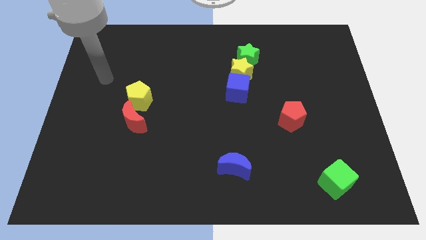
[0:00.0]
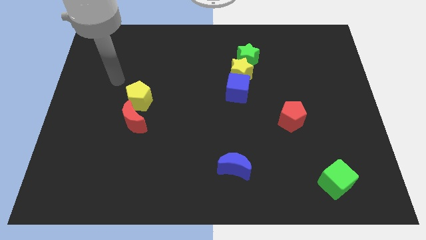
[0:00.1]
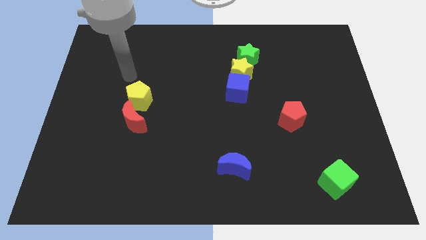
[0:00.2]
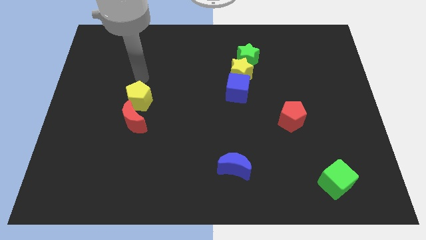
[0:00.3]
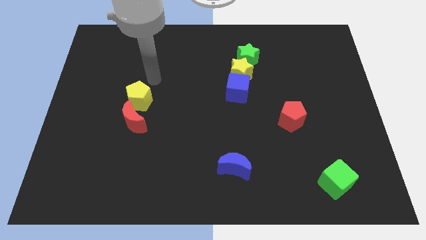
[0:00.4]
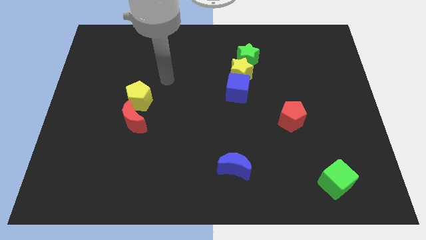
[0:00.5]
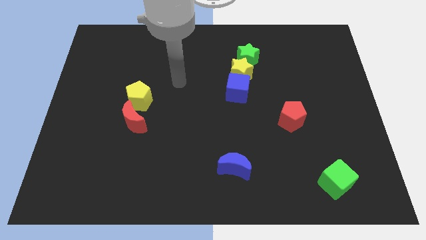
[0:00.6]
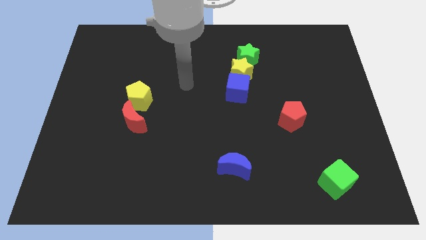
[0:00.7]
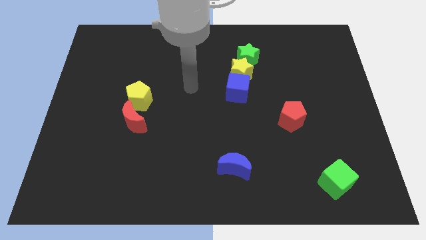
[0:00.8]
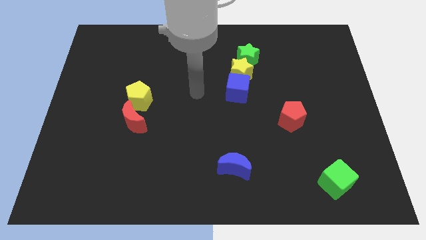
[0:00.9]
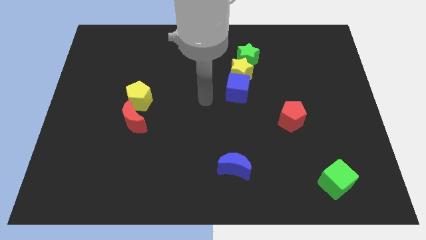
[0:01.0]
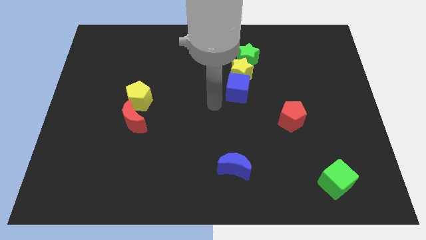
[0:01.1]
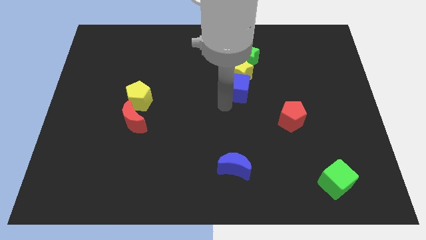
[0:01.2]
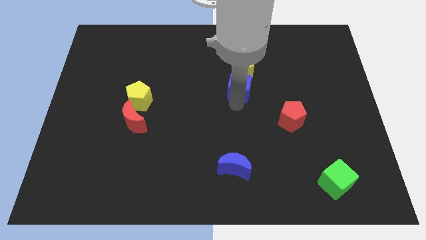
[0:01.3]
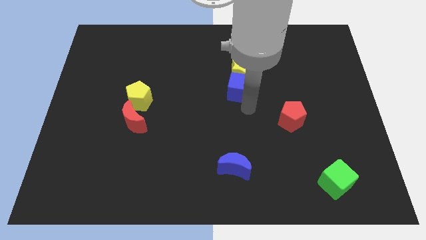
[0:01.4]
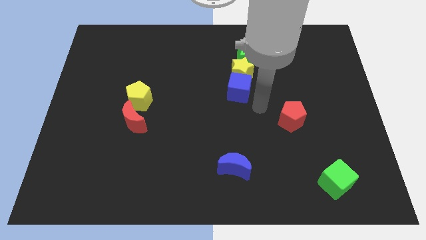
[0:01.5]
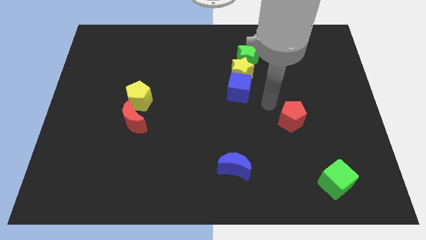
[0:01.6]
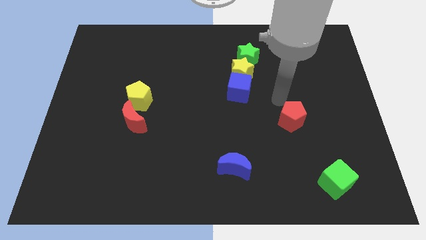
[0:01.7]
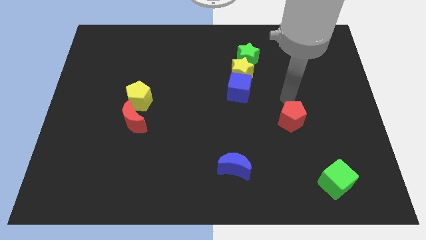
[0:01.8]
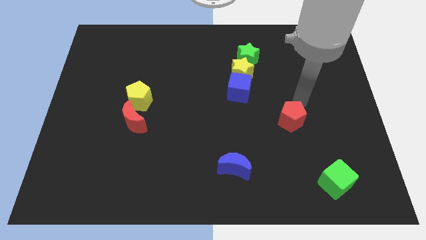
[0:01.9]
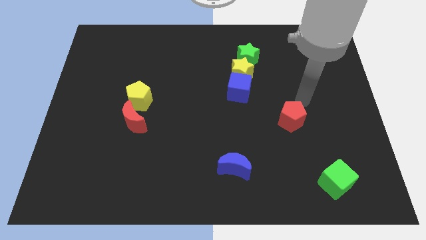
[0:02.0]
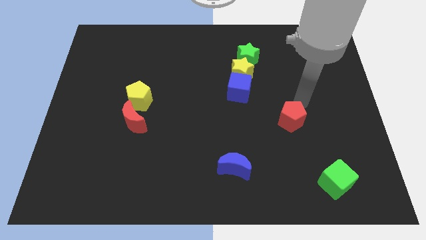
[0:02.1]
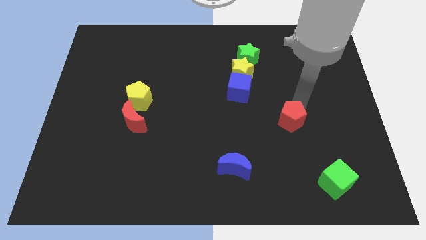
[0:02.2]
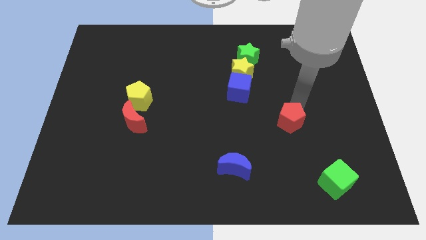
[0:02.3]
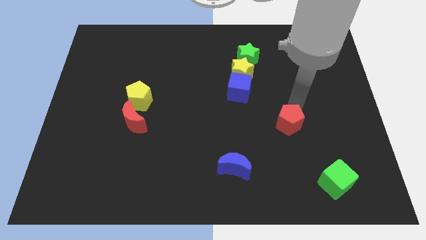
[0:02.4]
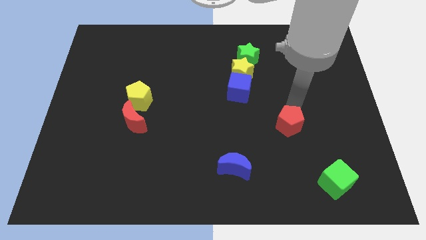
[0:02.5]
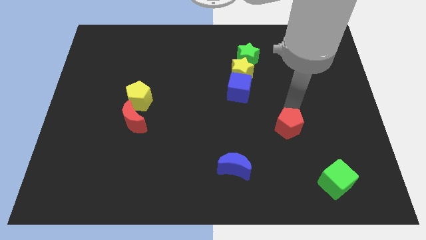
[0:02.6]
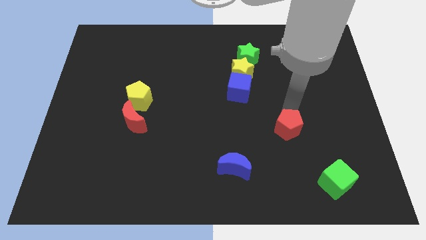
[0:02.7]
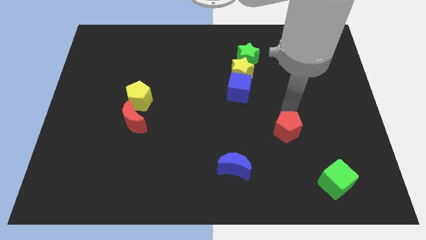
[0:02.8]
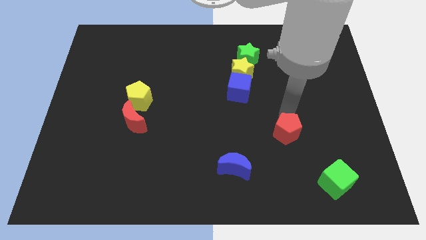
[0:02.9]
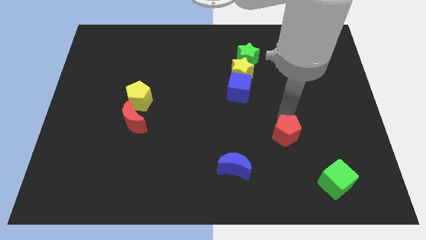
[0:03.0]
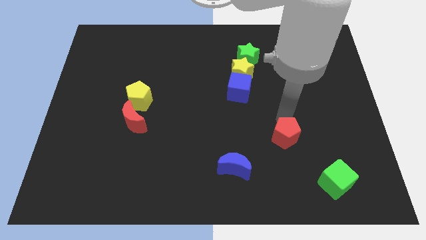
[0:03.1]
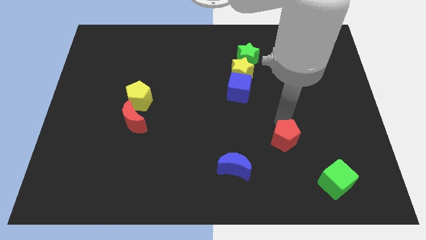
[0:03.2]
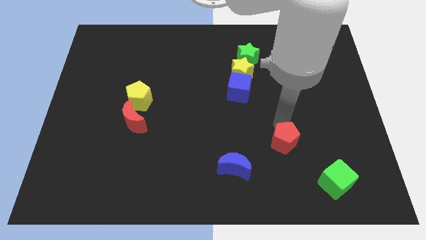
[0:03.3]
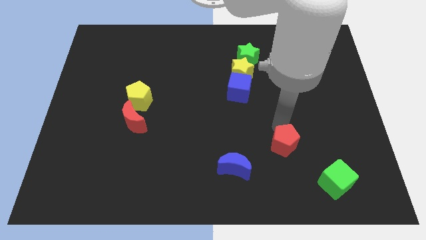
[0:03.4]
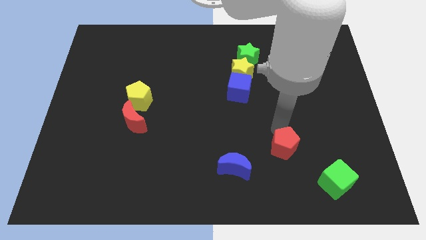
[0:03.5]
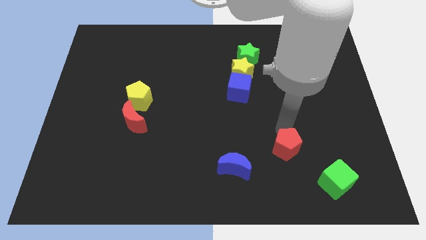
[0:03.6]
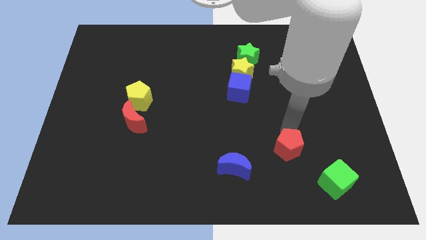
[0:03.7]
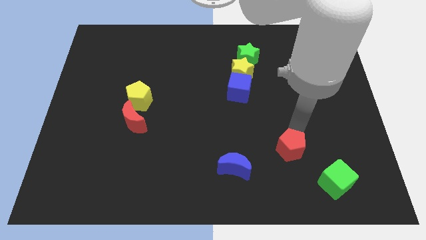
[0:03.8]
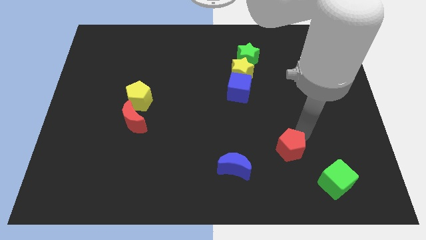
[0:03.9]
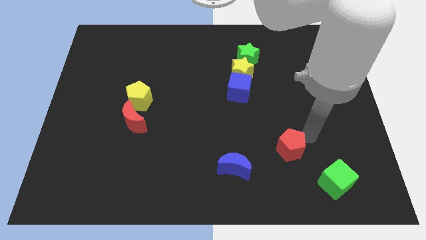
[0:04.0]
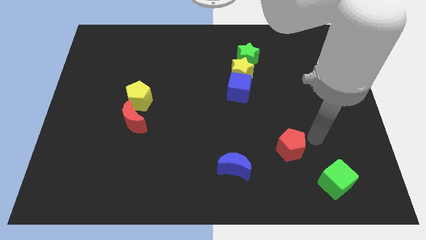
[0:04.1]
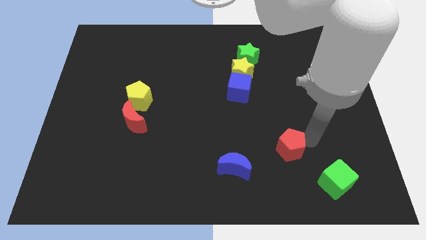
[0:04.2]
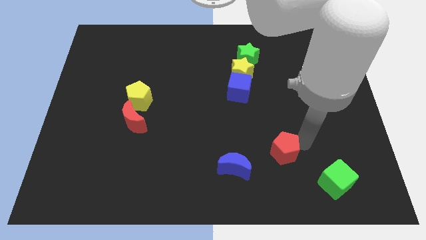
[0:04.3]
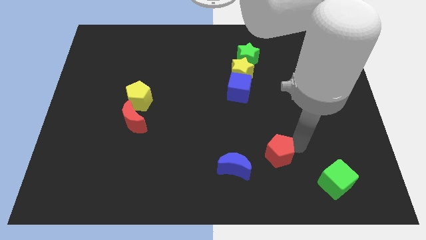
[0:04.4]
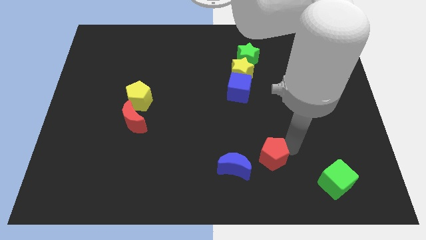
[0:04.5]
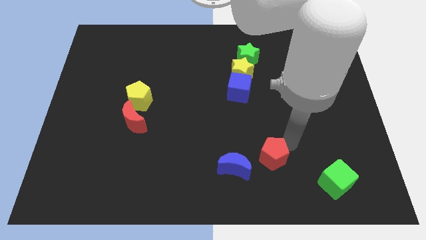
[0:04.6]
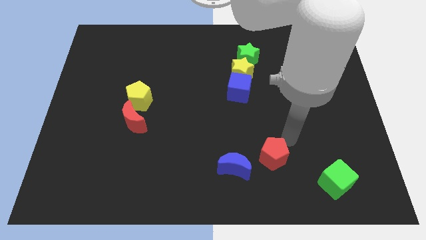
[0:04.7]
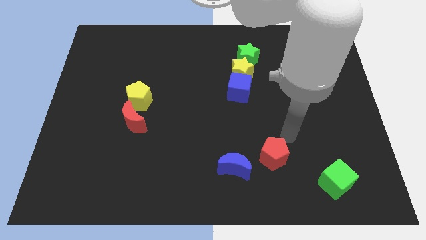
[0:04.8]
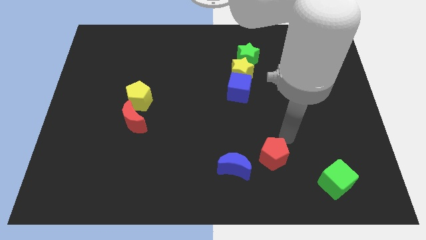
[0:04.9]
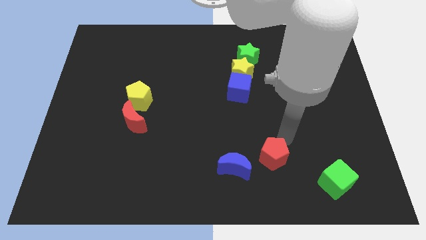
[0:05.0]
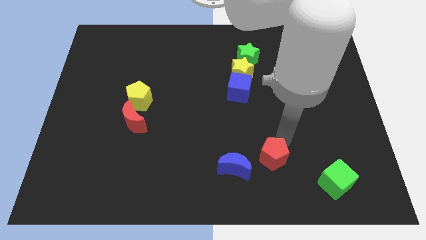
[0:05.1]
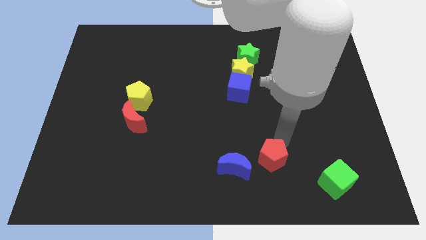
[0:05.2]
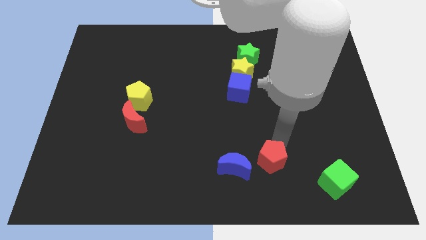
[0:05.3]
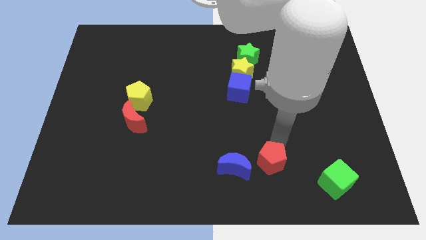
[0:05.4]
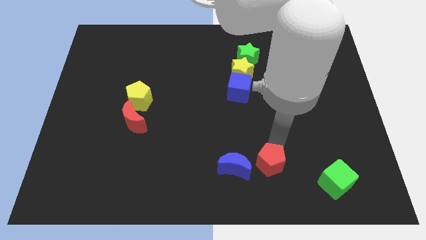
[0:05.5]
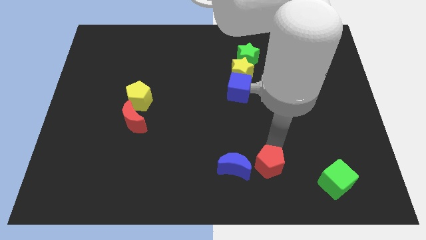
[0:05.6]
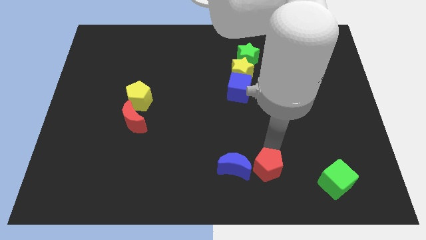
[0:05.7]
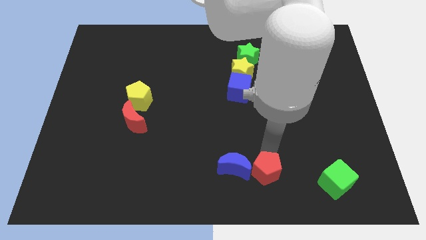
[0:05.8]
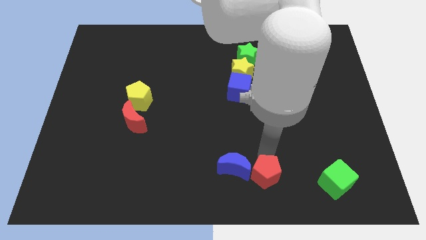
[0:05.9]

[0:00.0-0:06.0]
slide the red pentagon to the bottom

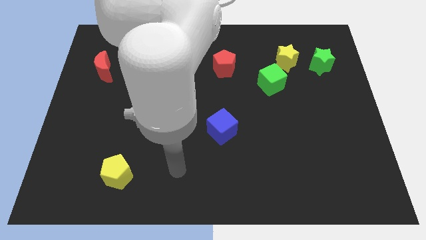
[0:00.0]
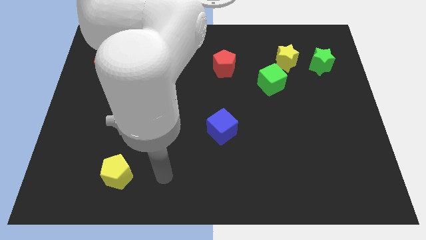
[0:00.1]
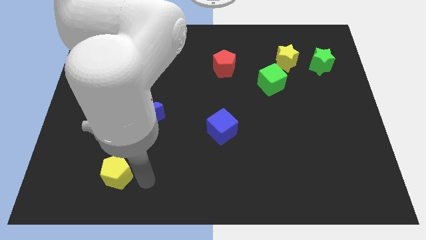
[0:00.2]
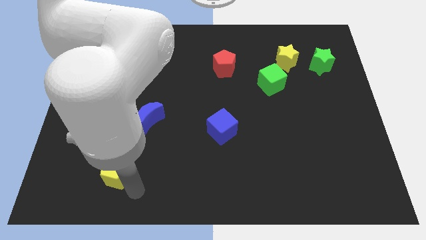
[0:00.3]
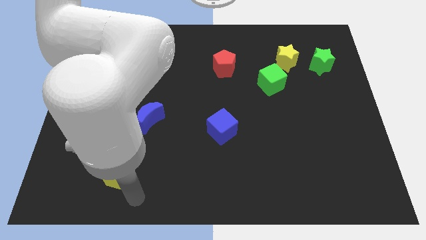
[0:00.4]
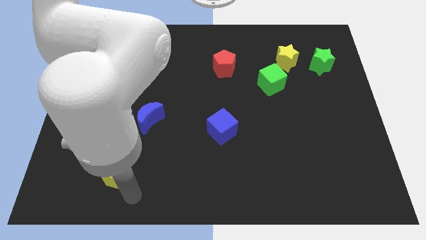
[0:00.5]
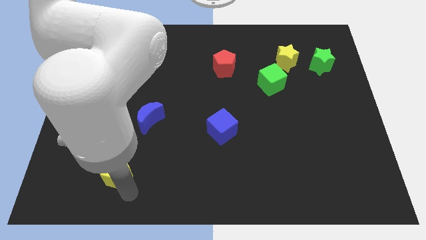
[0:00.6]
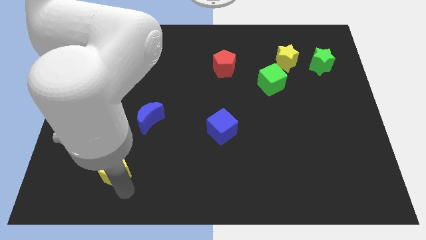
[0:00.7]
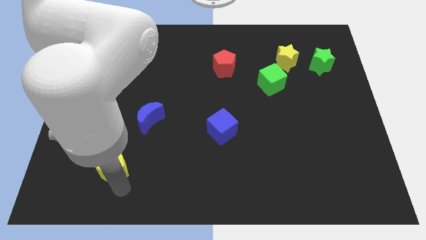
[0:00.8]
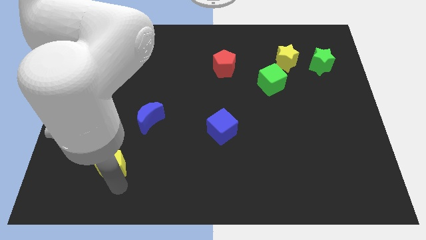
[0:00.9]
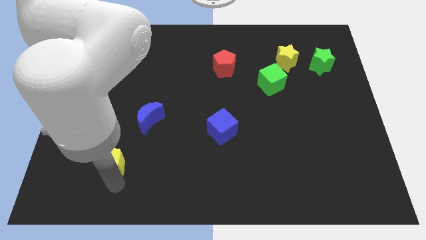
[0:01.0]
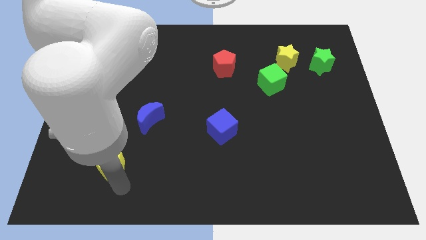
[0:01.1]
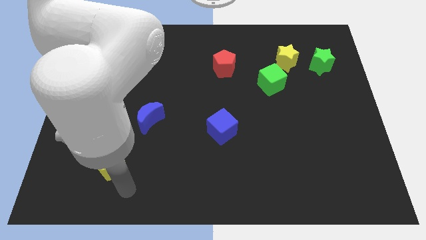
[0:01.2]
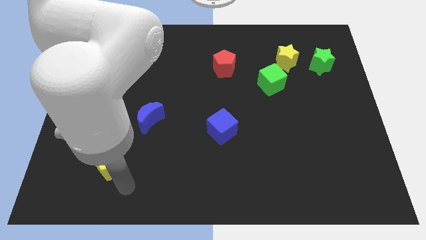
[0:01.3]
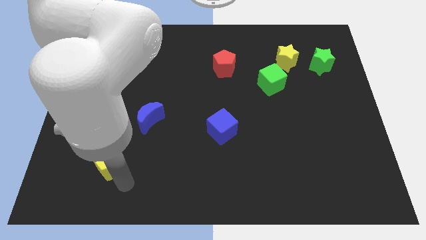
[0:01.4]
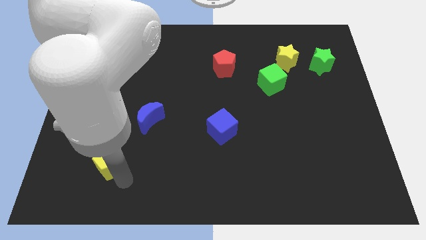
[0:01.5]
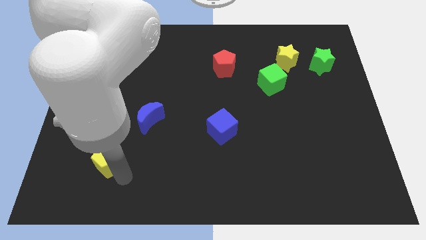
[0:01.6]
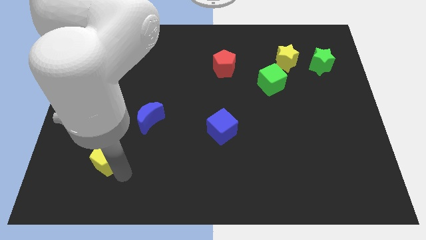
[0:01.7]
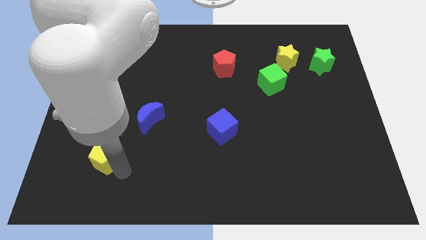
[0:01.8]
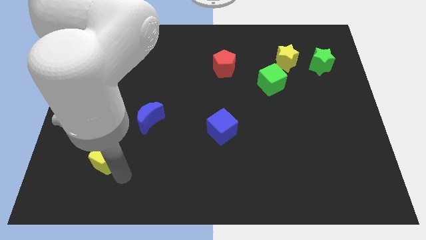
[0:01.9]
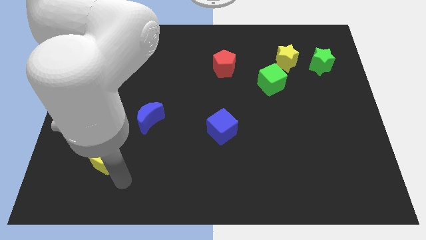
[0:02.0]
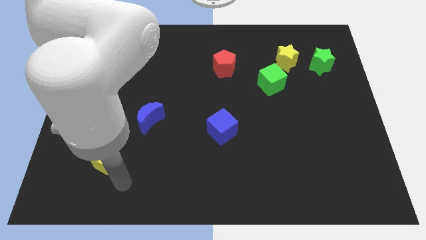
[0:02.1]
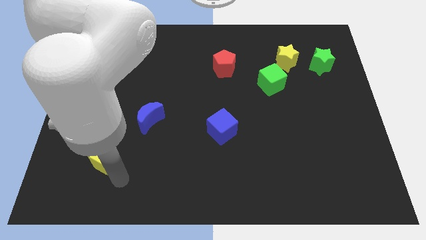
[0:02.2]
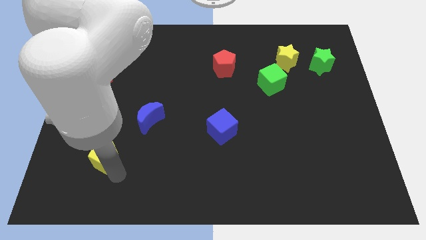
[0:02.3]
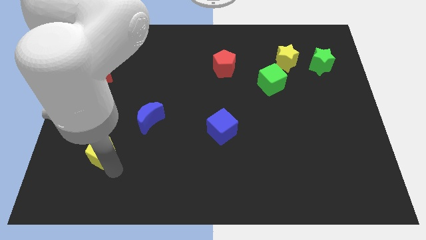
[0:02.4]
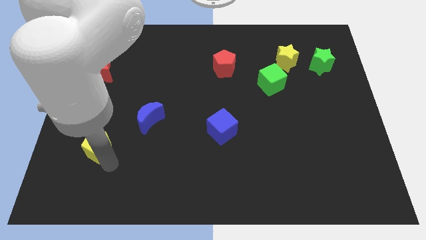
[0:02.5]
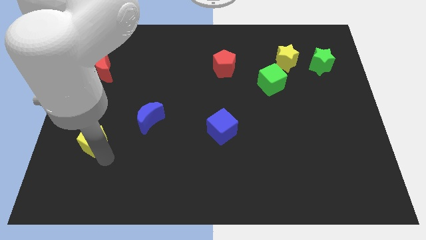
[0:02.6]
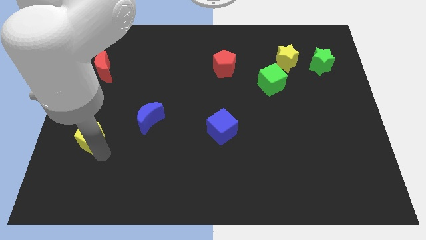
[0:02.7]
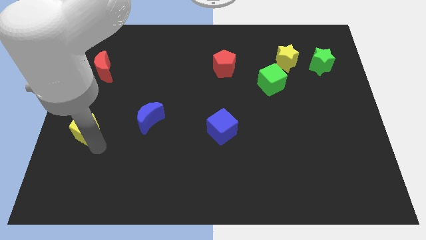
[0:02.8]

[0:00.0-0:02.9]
move the yellow pentagon to the left side of the board
